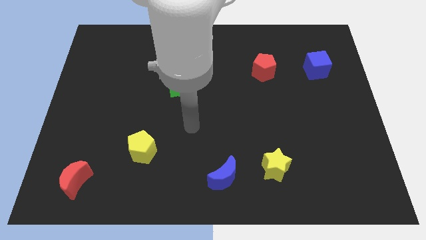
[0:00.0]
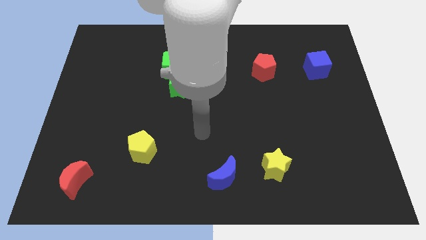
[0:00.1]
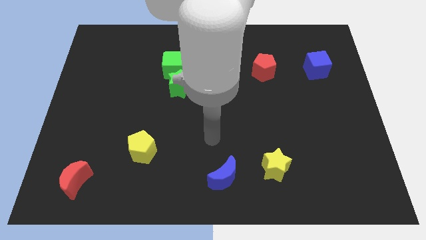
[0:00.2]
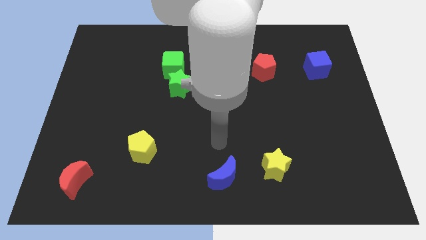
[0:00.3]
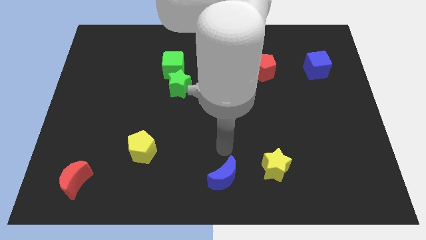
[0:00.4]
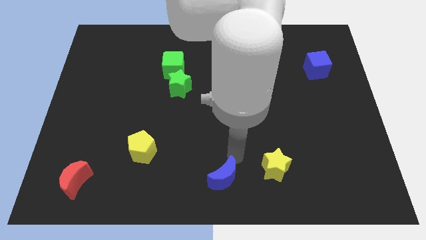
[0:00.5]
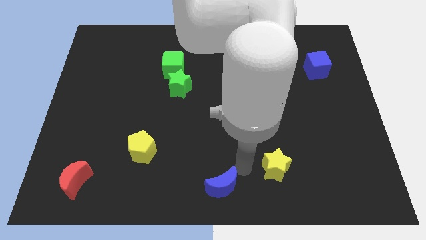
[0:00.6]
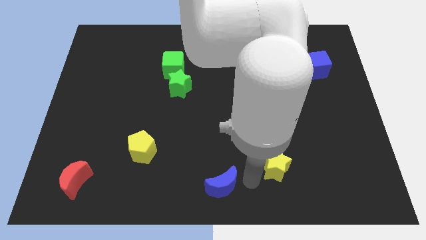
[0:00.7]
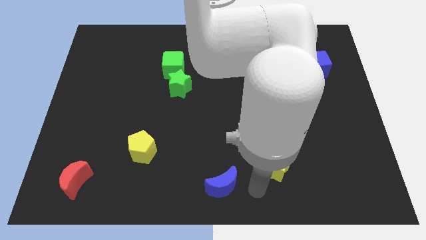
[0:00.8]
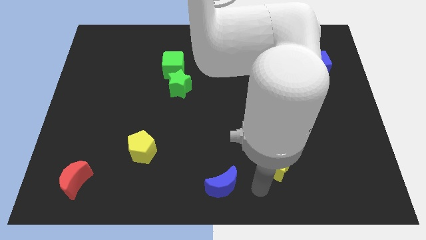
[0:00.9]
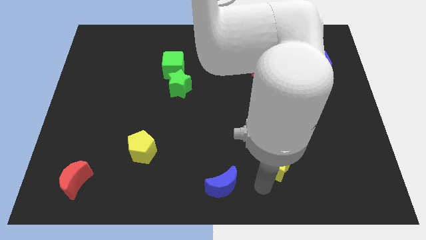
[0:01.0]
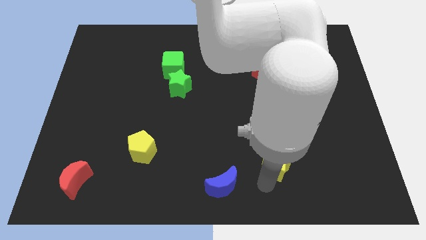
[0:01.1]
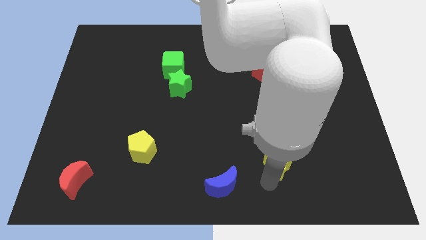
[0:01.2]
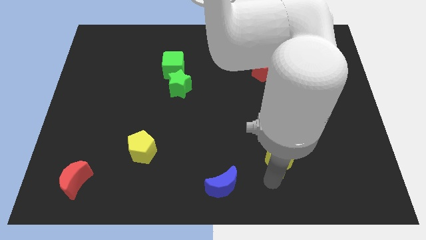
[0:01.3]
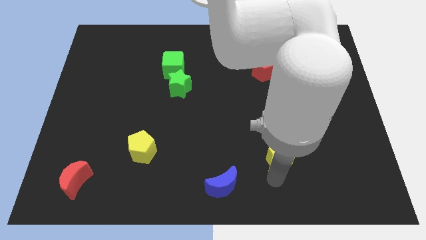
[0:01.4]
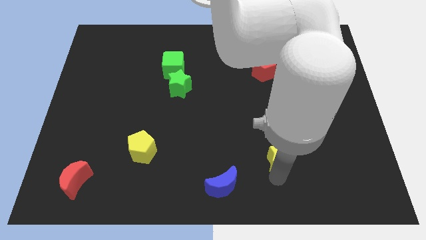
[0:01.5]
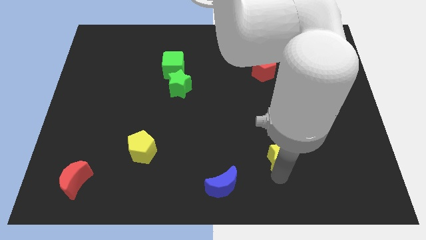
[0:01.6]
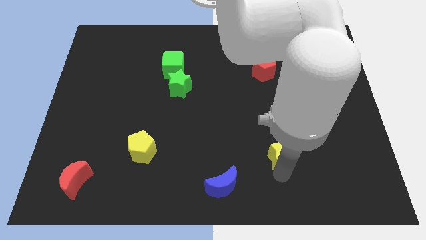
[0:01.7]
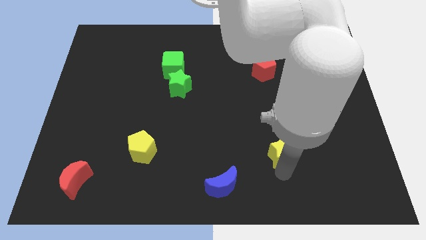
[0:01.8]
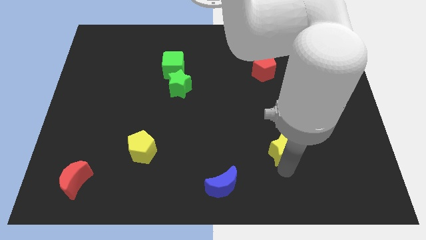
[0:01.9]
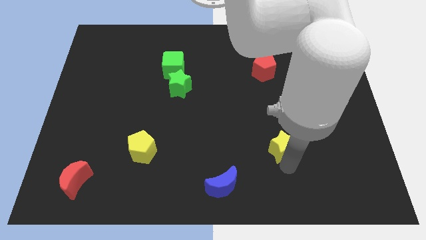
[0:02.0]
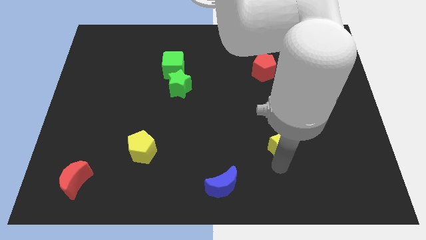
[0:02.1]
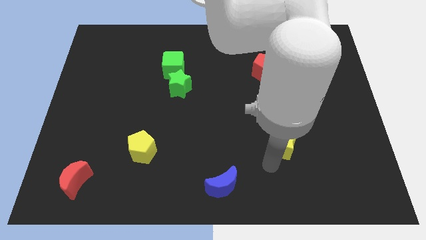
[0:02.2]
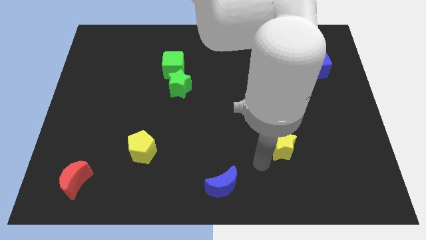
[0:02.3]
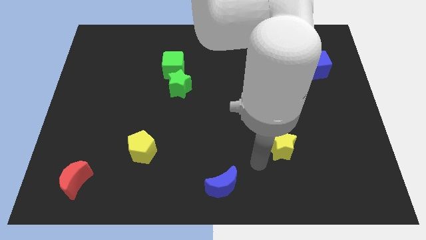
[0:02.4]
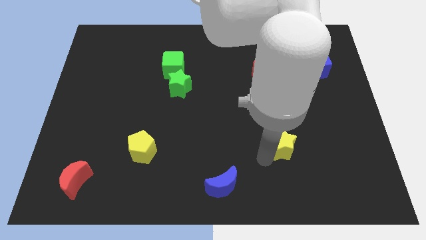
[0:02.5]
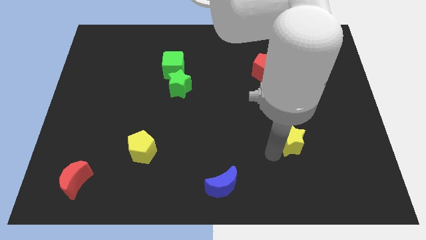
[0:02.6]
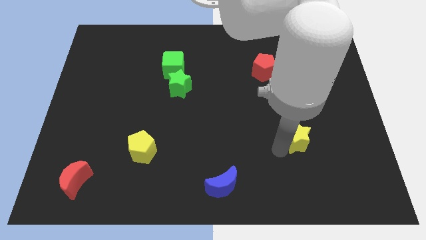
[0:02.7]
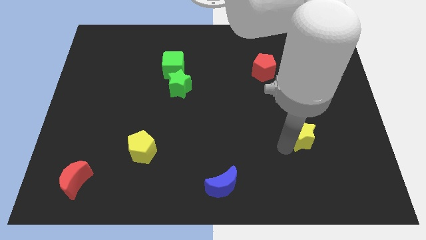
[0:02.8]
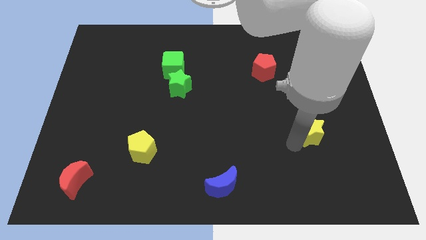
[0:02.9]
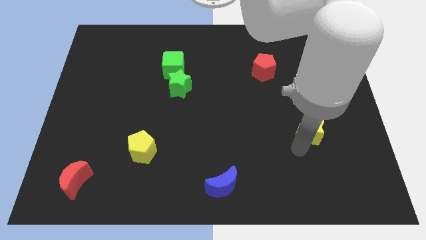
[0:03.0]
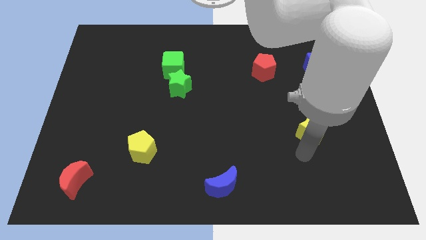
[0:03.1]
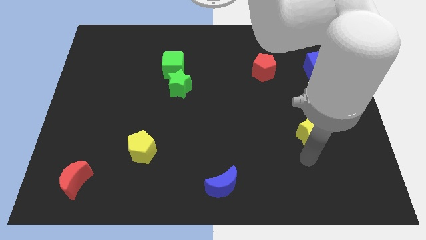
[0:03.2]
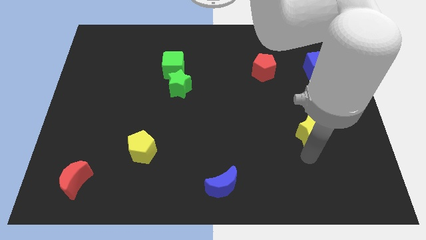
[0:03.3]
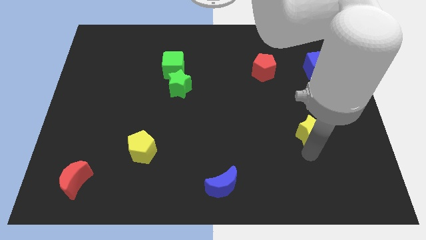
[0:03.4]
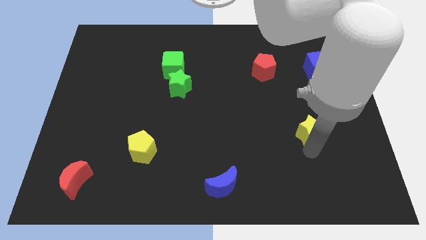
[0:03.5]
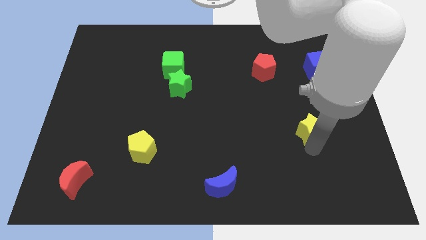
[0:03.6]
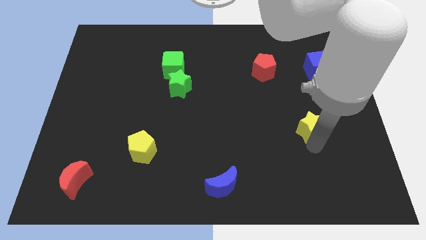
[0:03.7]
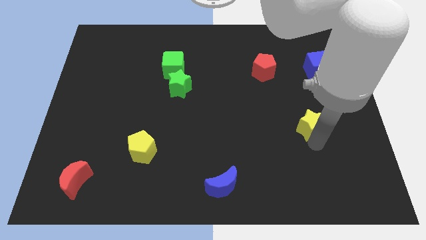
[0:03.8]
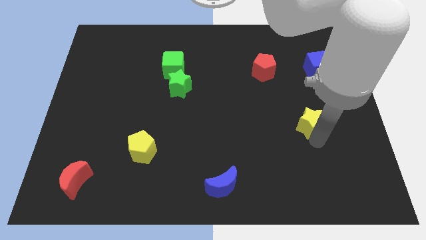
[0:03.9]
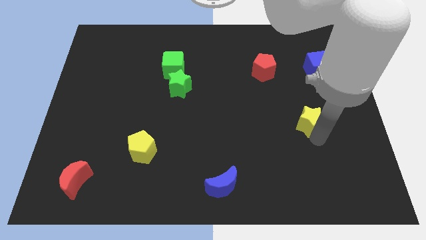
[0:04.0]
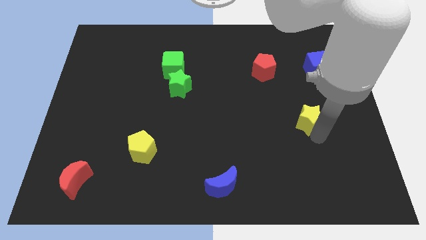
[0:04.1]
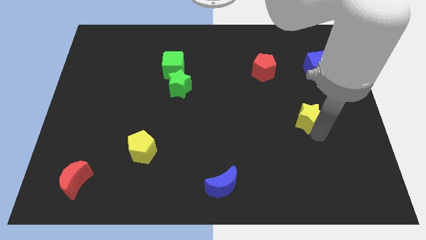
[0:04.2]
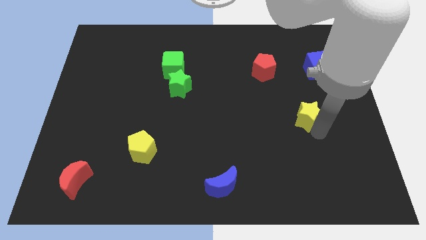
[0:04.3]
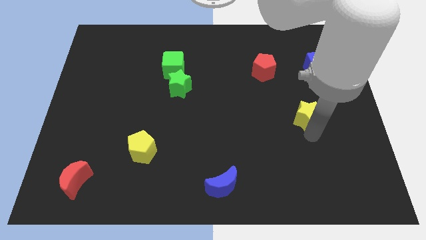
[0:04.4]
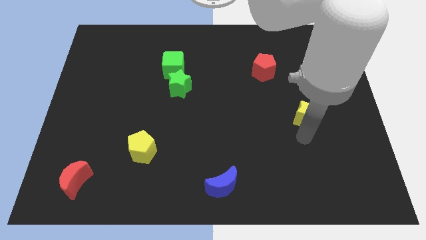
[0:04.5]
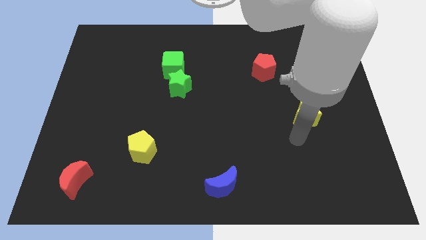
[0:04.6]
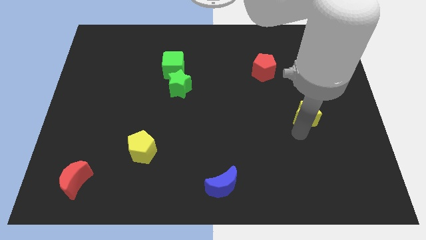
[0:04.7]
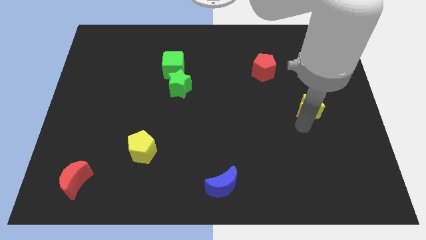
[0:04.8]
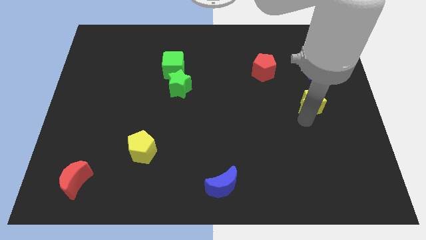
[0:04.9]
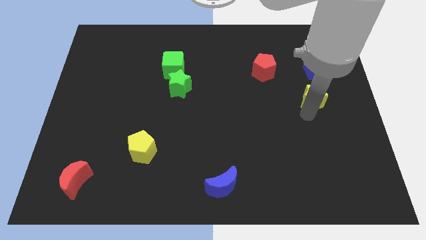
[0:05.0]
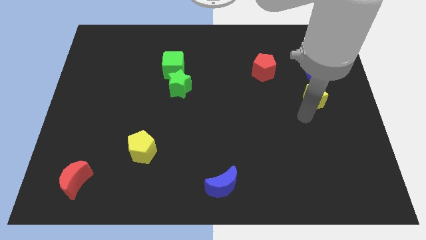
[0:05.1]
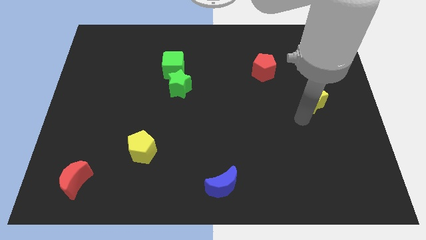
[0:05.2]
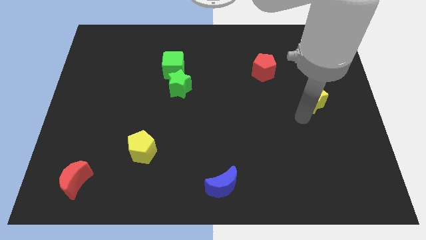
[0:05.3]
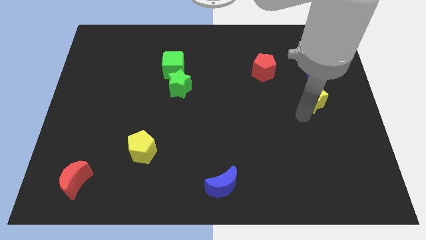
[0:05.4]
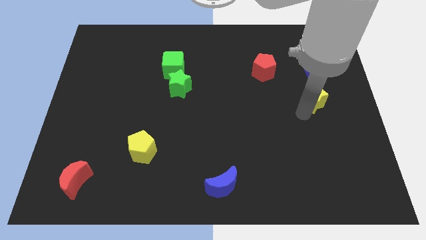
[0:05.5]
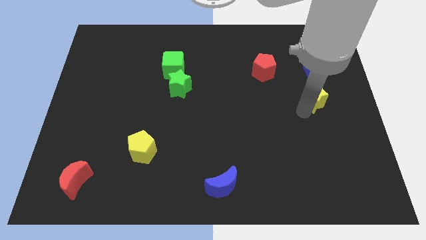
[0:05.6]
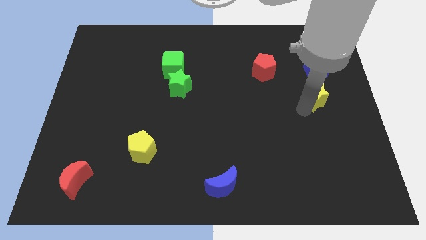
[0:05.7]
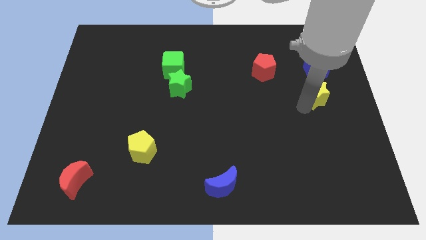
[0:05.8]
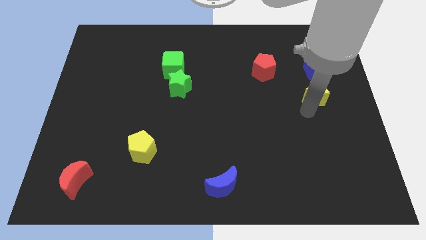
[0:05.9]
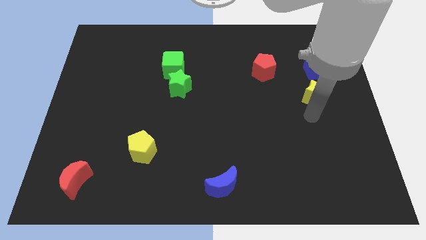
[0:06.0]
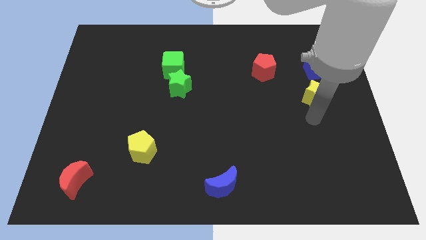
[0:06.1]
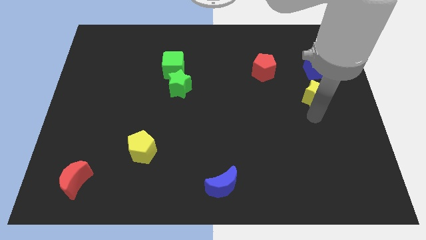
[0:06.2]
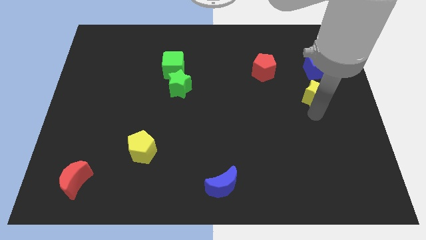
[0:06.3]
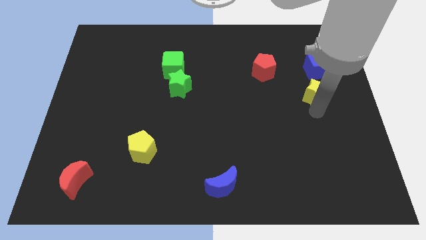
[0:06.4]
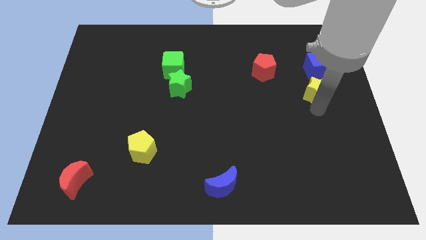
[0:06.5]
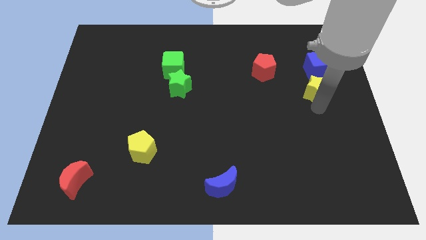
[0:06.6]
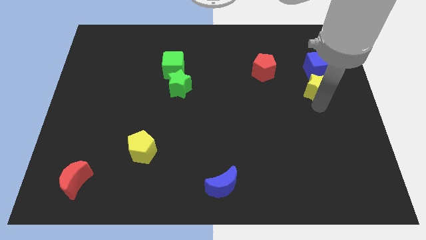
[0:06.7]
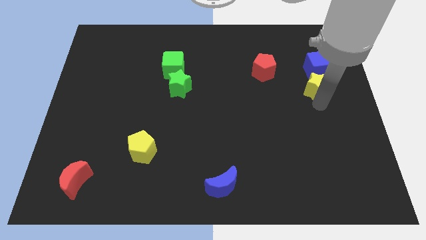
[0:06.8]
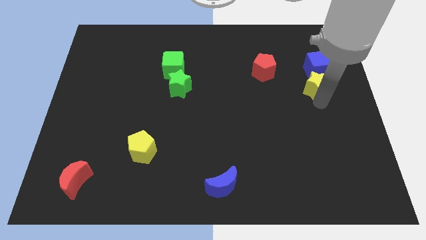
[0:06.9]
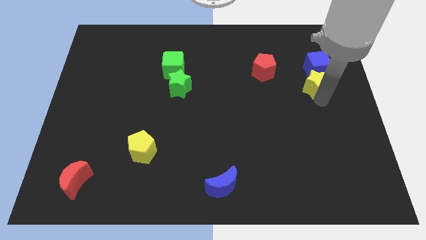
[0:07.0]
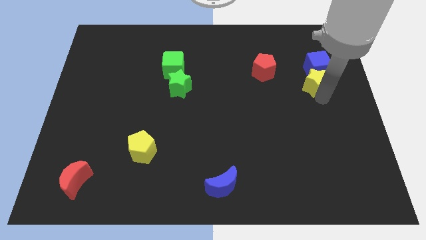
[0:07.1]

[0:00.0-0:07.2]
slide the yellow star next to the blue cube
